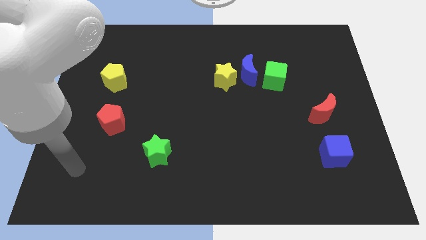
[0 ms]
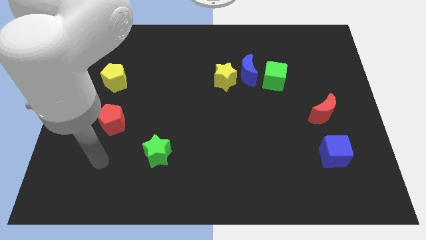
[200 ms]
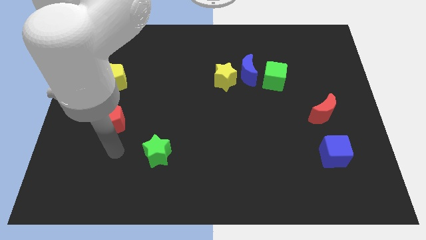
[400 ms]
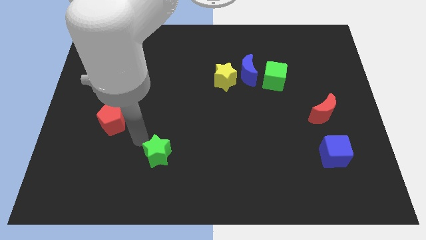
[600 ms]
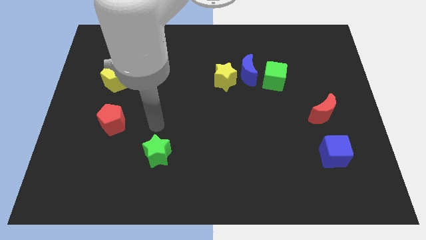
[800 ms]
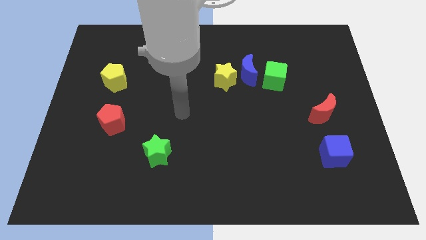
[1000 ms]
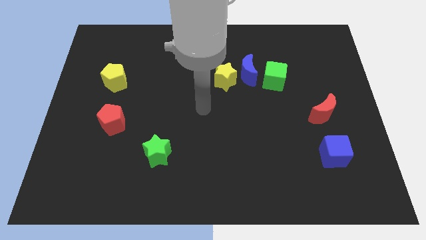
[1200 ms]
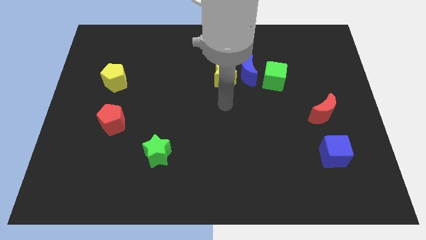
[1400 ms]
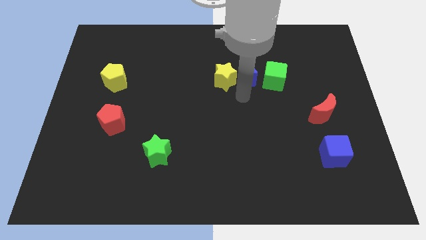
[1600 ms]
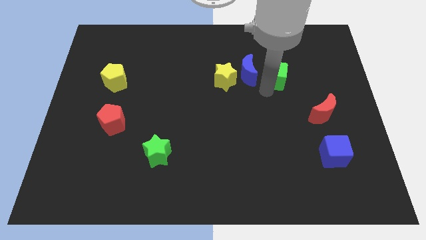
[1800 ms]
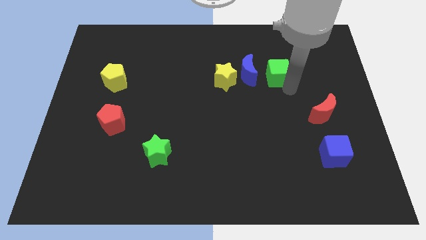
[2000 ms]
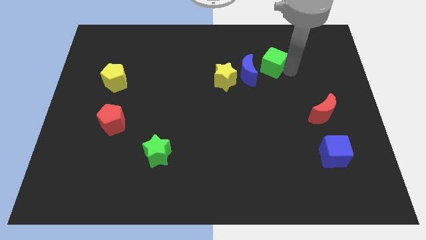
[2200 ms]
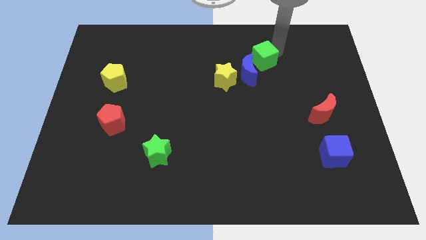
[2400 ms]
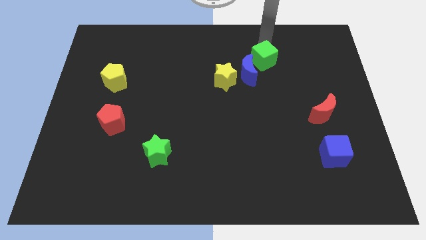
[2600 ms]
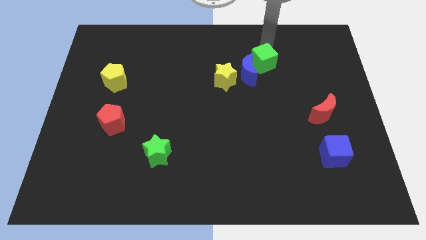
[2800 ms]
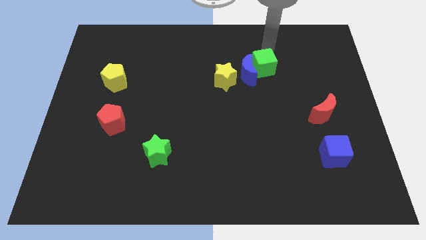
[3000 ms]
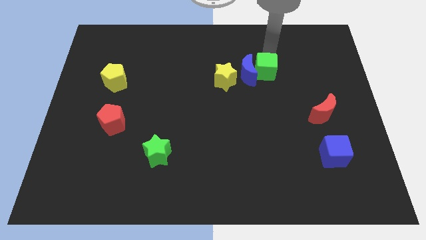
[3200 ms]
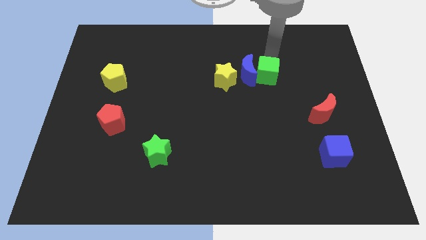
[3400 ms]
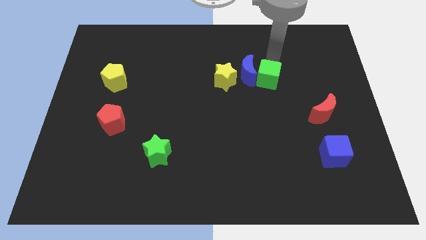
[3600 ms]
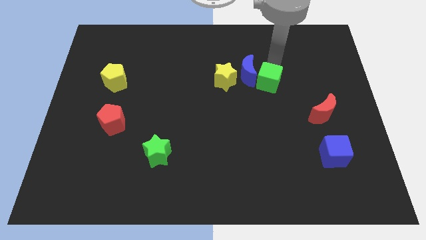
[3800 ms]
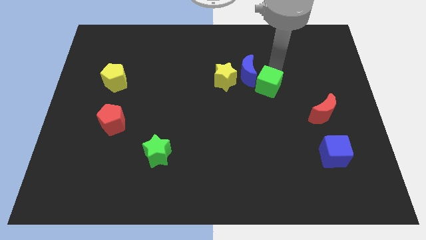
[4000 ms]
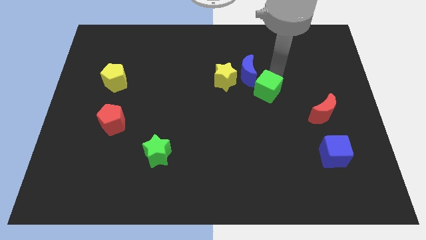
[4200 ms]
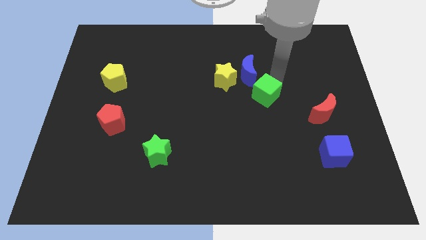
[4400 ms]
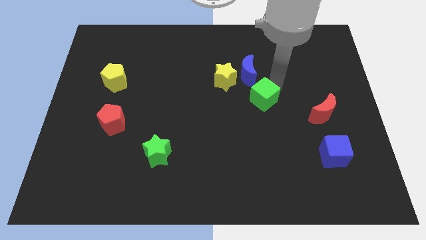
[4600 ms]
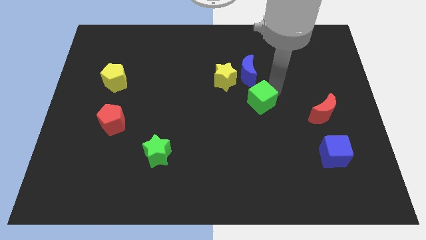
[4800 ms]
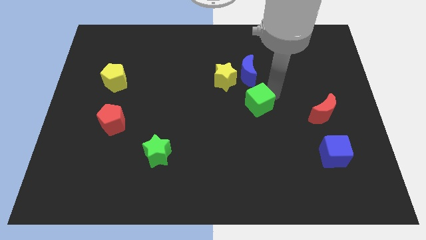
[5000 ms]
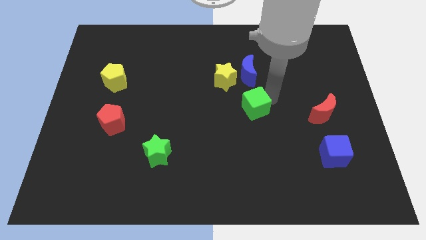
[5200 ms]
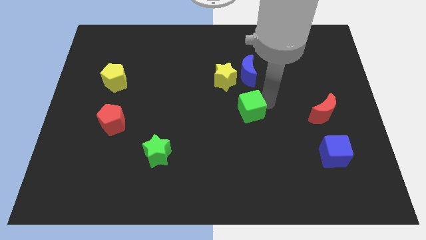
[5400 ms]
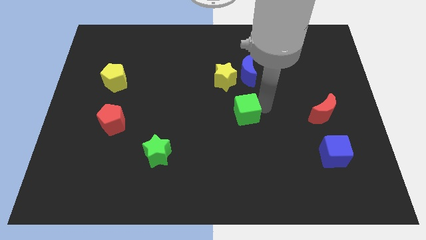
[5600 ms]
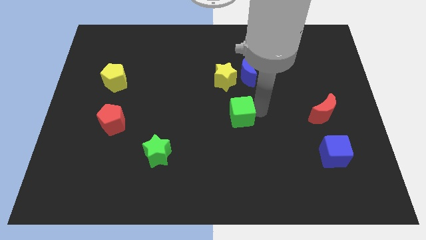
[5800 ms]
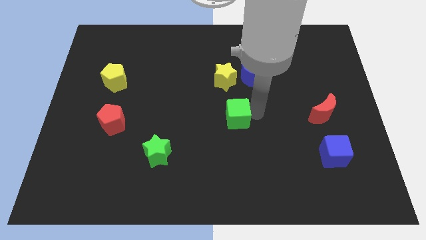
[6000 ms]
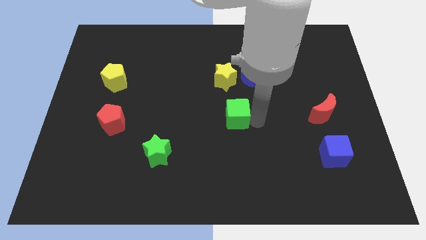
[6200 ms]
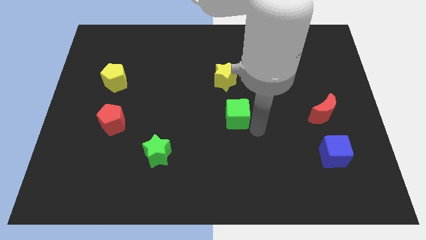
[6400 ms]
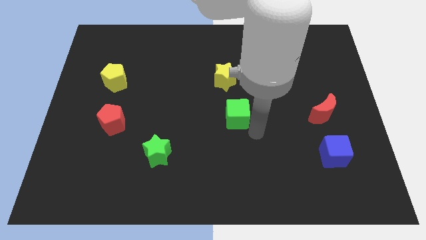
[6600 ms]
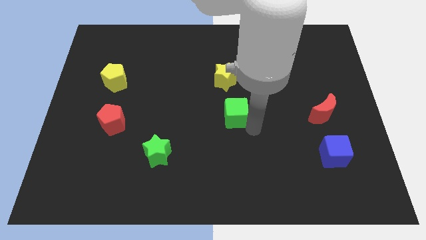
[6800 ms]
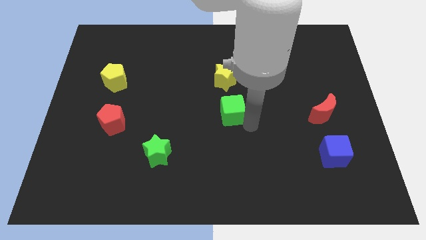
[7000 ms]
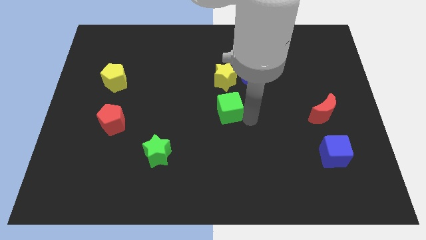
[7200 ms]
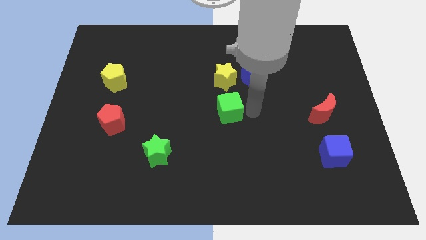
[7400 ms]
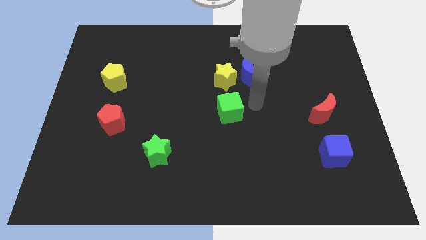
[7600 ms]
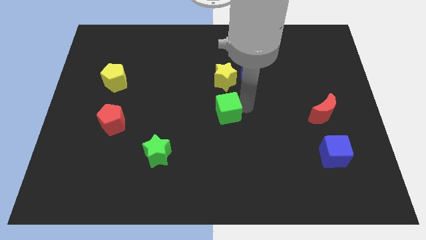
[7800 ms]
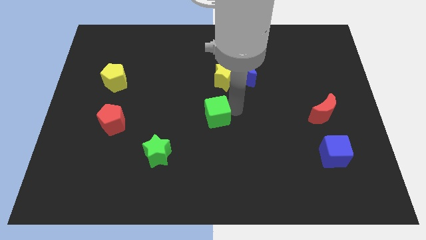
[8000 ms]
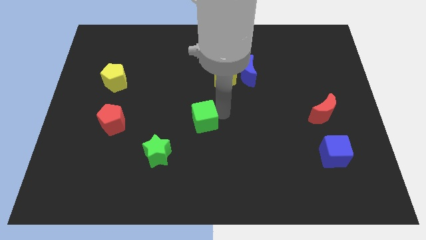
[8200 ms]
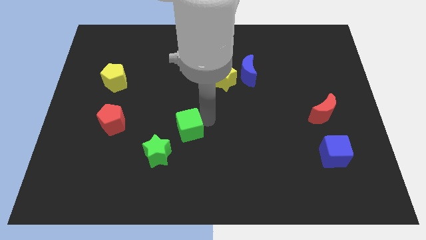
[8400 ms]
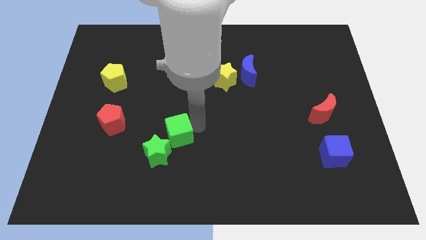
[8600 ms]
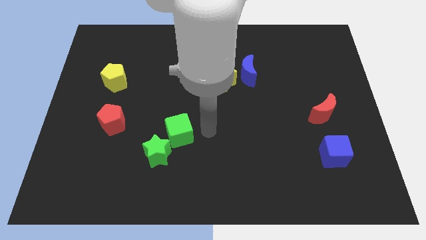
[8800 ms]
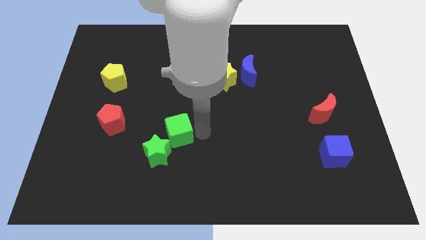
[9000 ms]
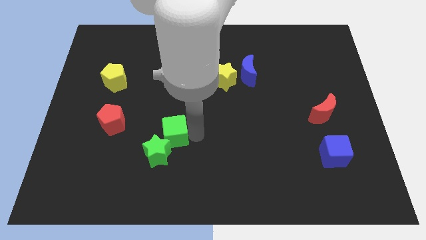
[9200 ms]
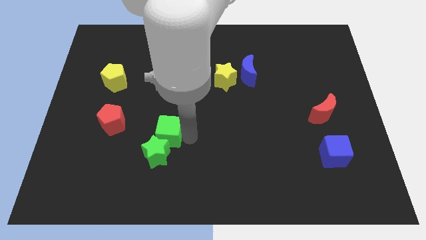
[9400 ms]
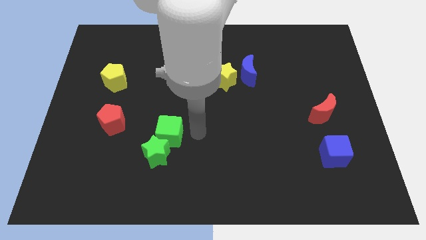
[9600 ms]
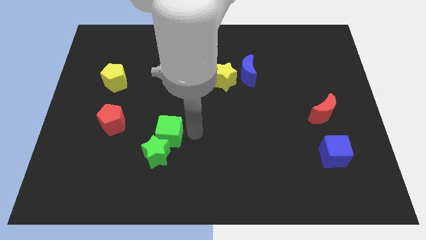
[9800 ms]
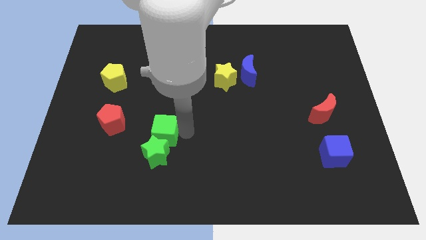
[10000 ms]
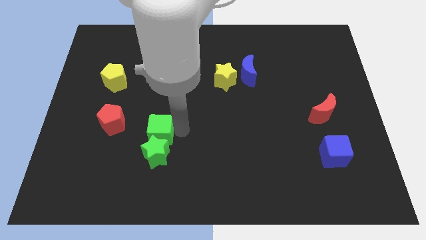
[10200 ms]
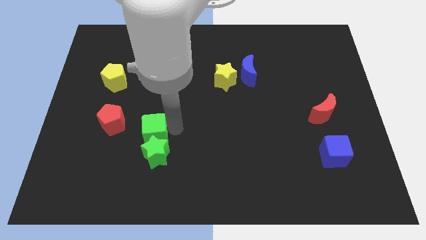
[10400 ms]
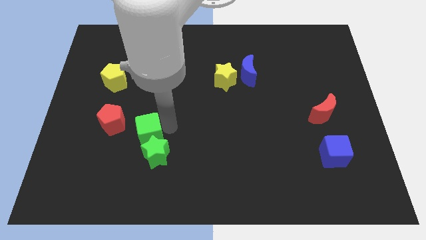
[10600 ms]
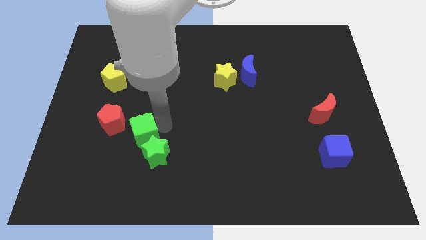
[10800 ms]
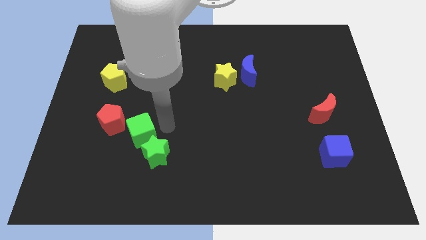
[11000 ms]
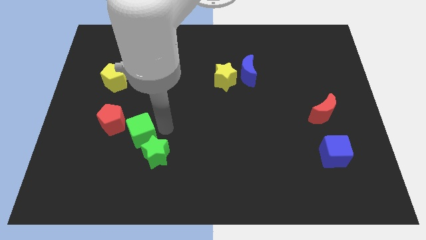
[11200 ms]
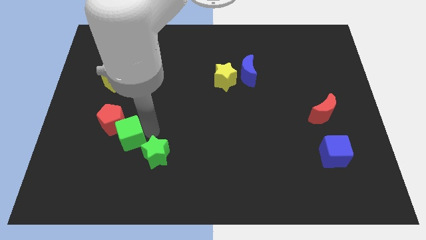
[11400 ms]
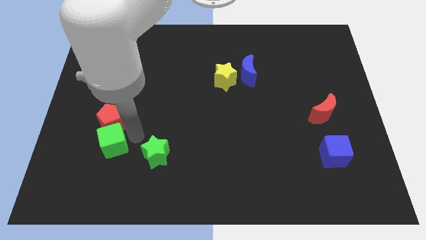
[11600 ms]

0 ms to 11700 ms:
move the green cube to the bottom left side of the red pentagon

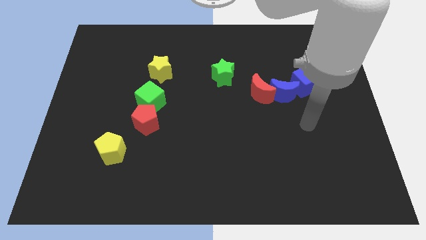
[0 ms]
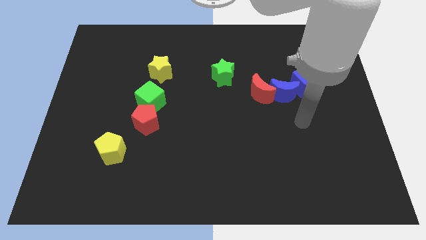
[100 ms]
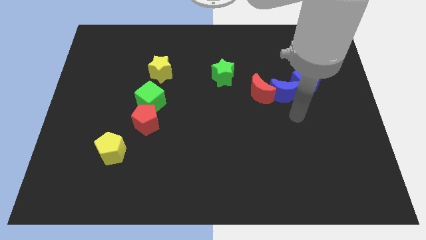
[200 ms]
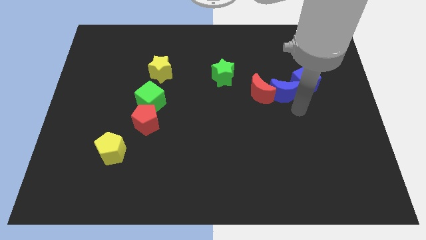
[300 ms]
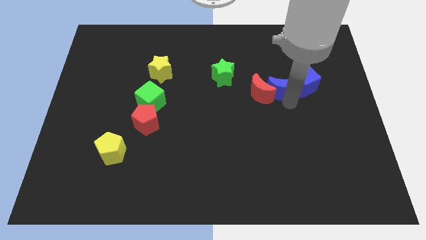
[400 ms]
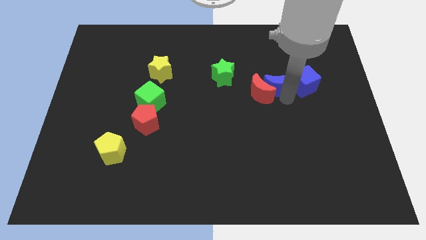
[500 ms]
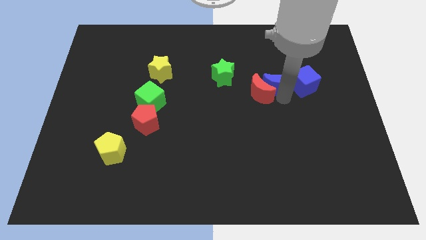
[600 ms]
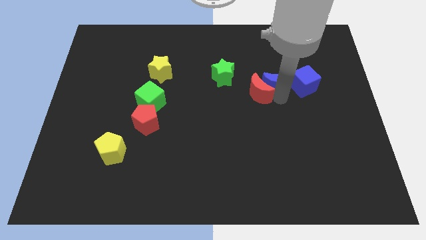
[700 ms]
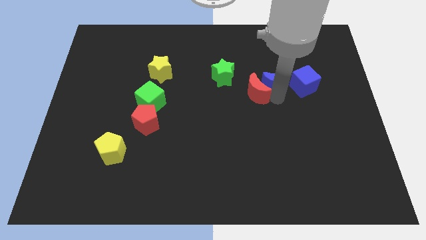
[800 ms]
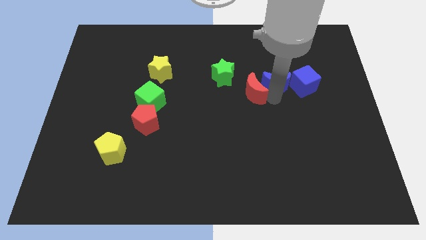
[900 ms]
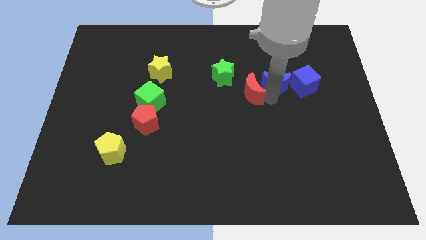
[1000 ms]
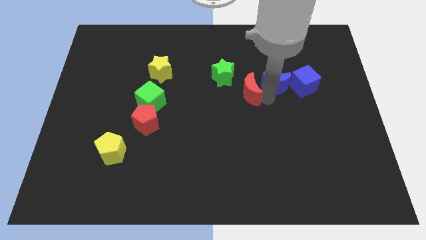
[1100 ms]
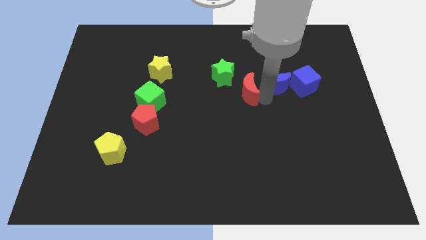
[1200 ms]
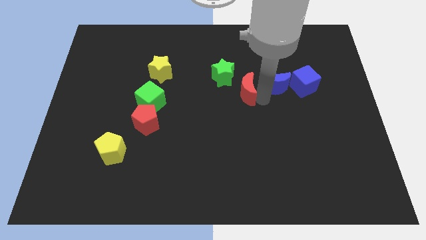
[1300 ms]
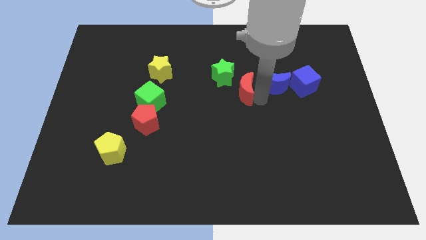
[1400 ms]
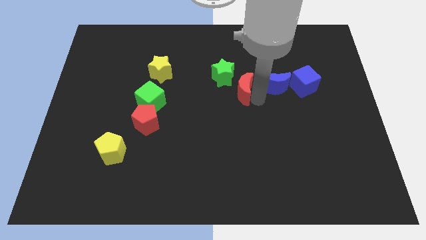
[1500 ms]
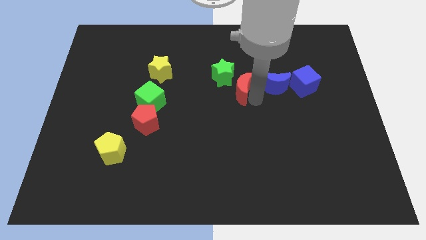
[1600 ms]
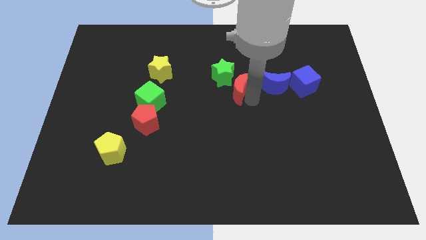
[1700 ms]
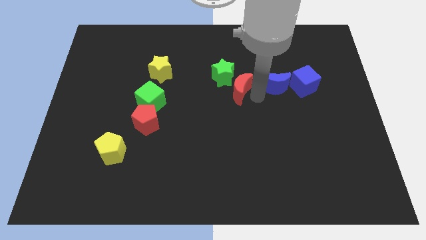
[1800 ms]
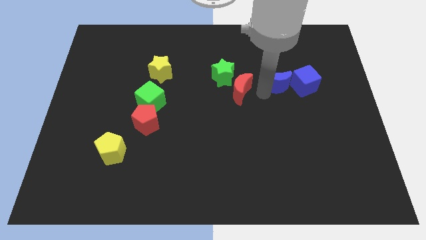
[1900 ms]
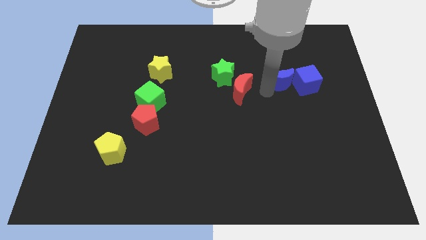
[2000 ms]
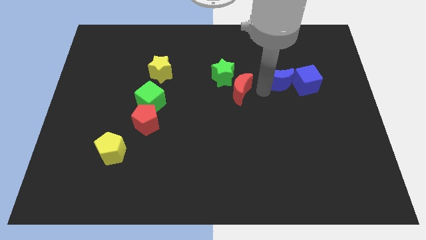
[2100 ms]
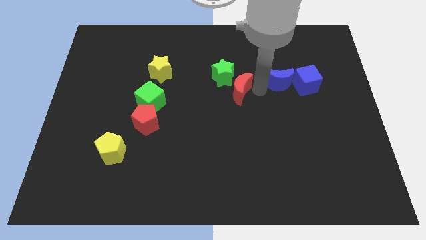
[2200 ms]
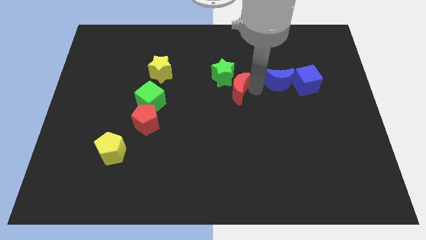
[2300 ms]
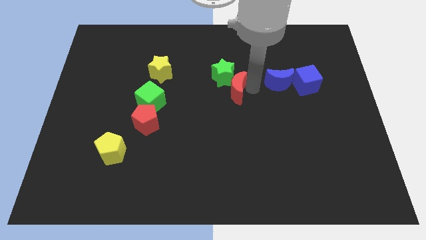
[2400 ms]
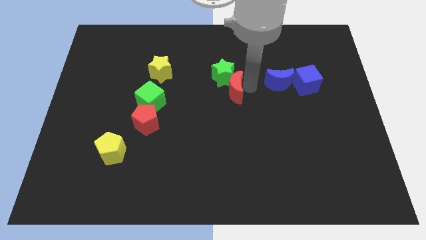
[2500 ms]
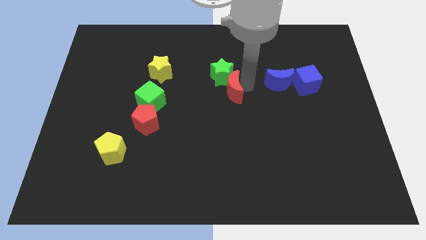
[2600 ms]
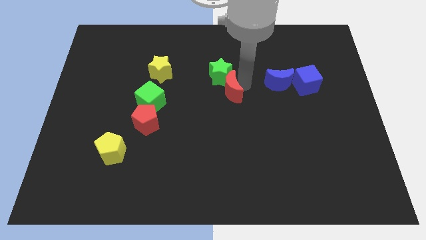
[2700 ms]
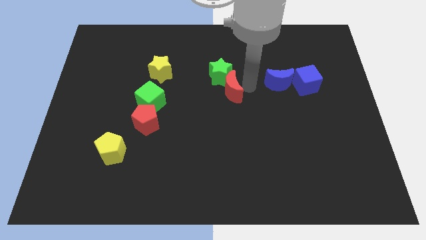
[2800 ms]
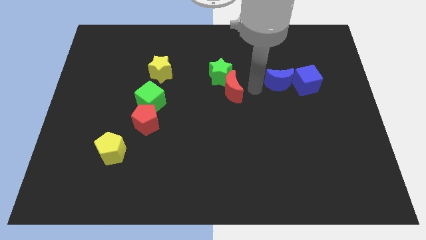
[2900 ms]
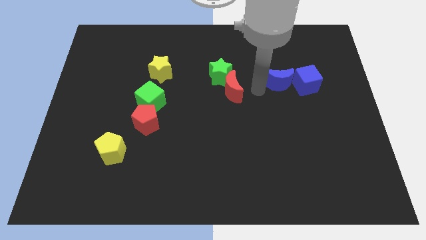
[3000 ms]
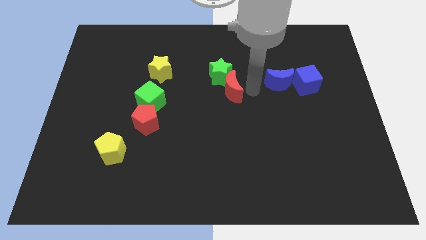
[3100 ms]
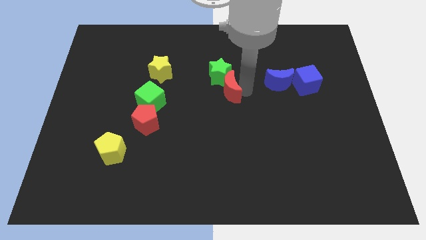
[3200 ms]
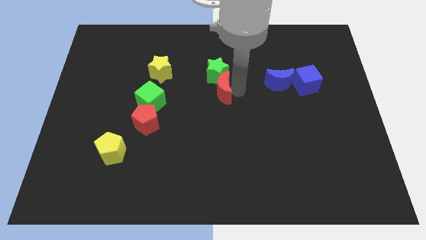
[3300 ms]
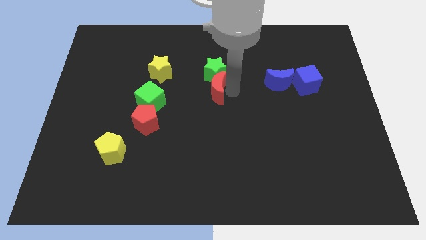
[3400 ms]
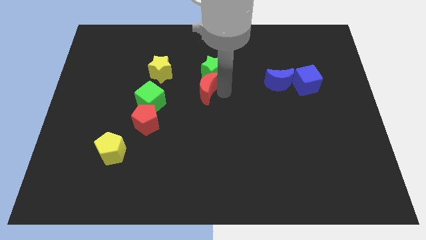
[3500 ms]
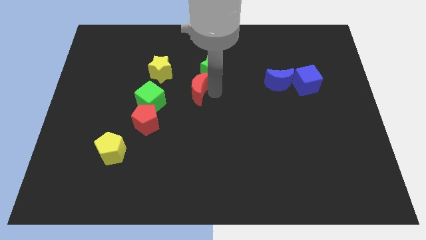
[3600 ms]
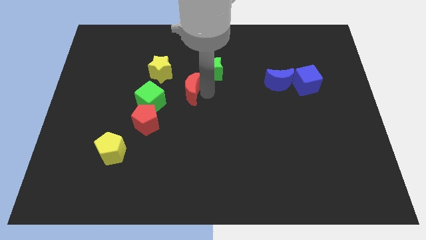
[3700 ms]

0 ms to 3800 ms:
push the red moon to the top right side of the green cube
